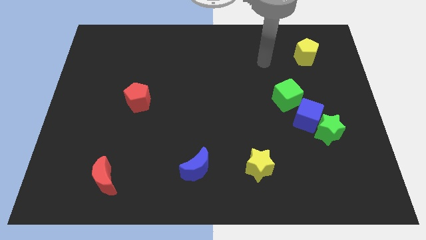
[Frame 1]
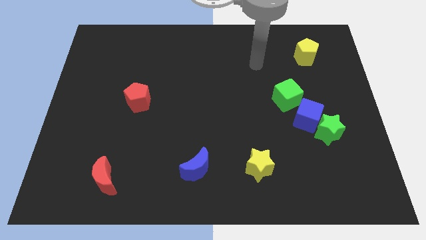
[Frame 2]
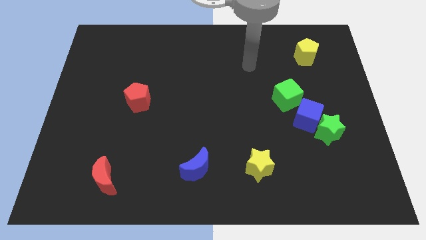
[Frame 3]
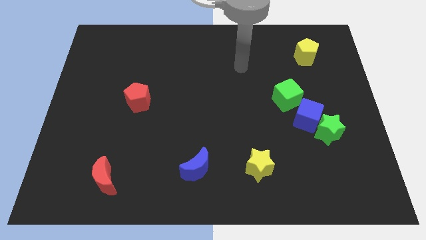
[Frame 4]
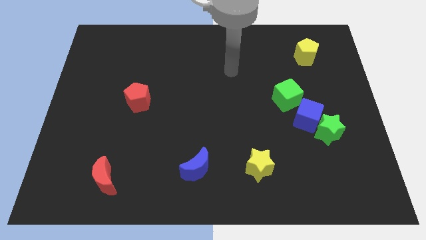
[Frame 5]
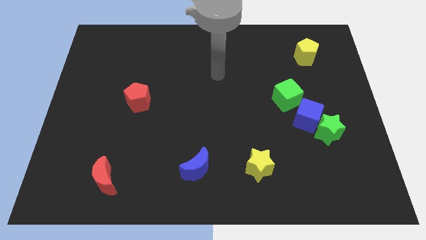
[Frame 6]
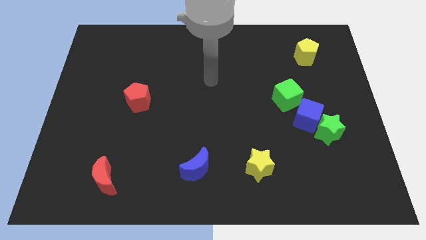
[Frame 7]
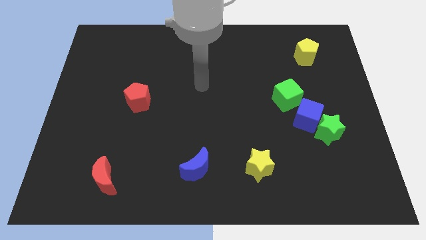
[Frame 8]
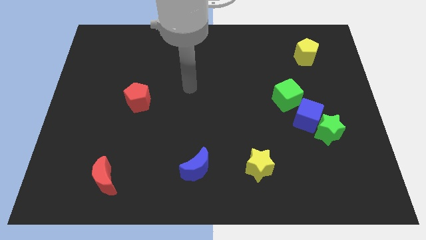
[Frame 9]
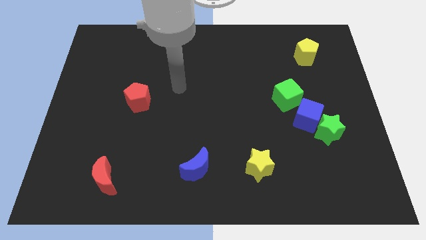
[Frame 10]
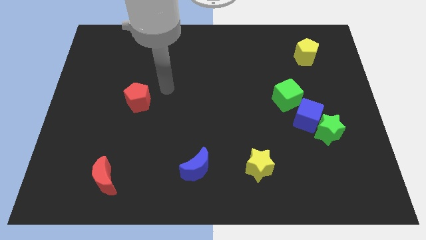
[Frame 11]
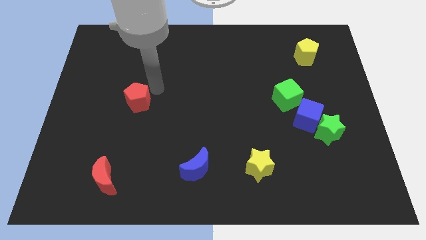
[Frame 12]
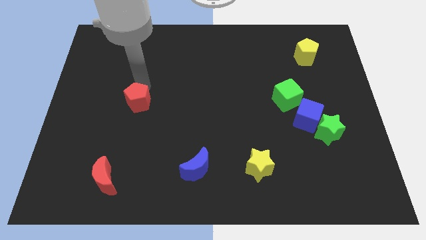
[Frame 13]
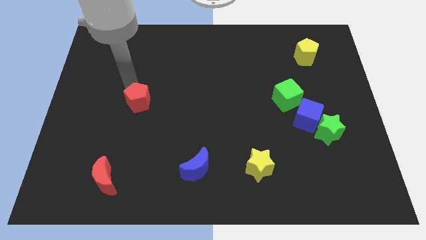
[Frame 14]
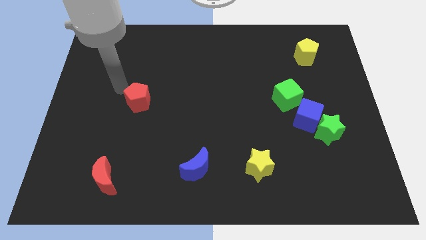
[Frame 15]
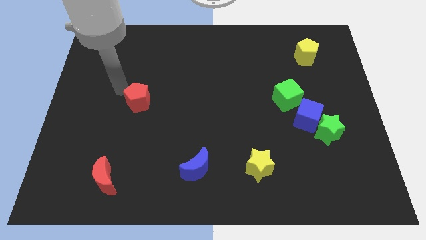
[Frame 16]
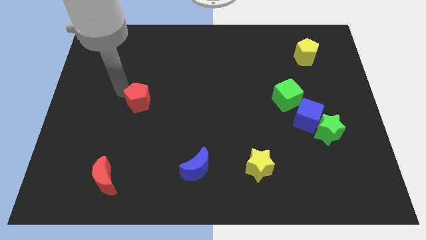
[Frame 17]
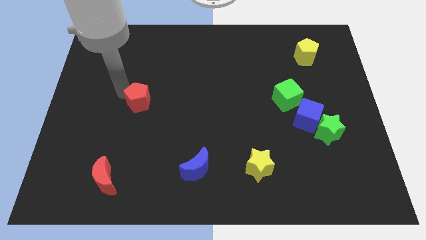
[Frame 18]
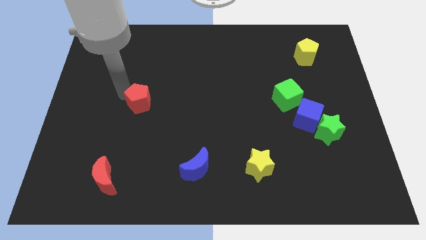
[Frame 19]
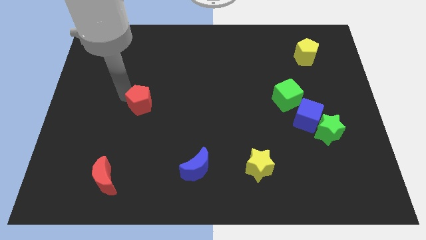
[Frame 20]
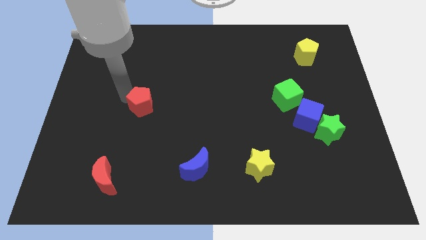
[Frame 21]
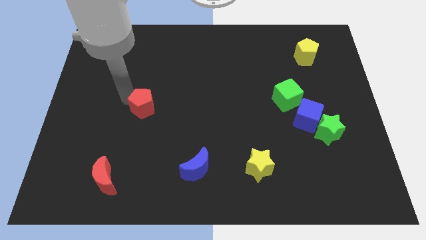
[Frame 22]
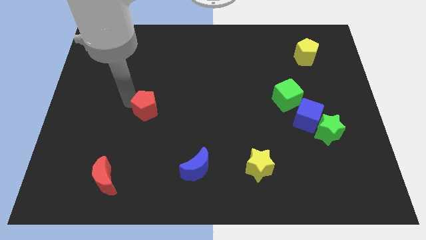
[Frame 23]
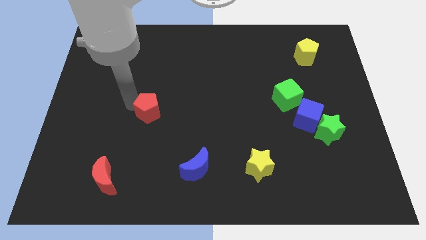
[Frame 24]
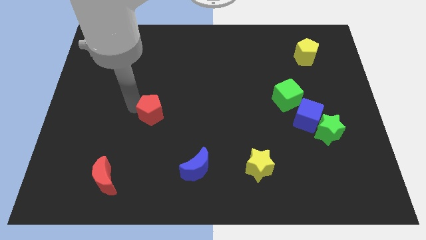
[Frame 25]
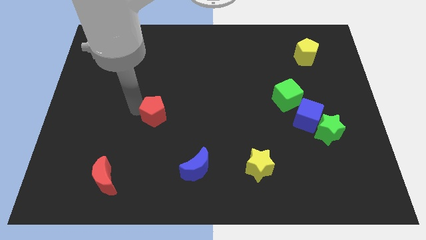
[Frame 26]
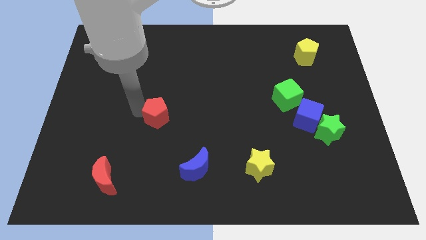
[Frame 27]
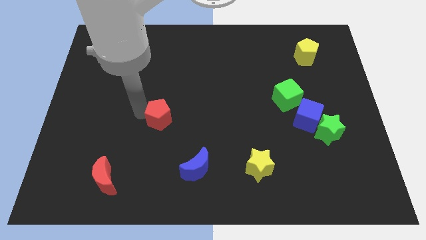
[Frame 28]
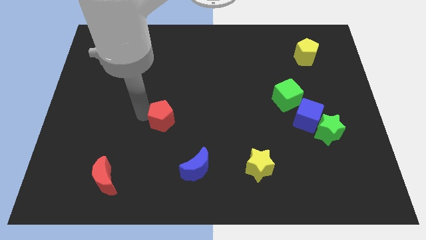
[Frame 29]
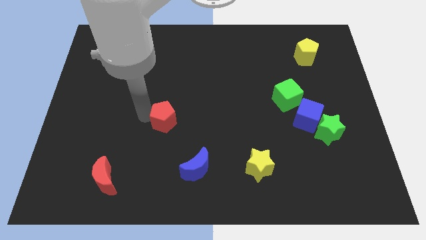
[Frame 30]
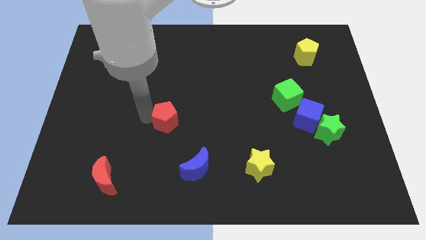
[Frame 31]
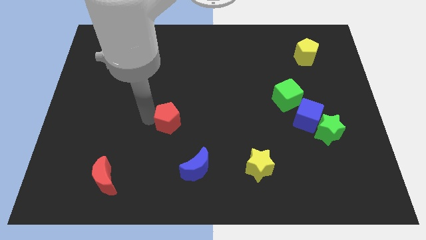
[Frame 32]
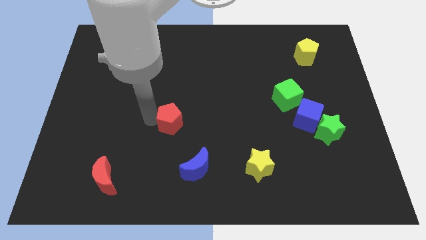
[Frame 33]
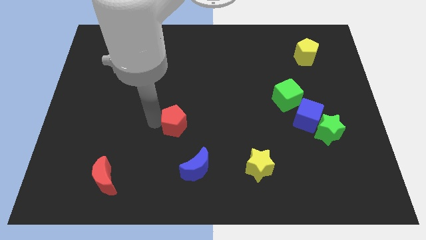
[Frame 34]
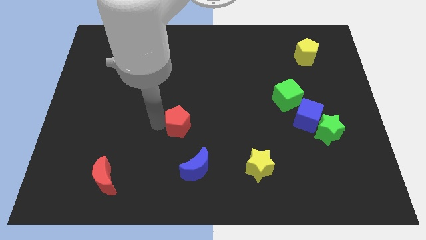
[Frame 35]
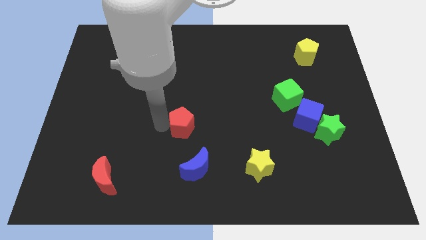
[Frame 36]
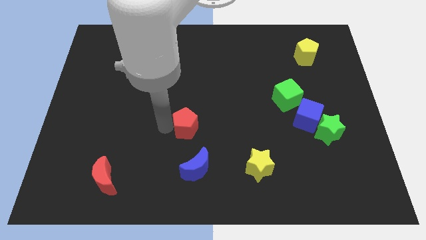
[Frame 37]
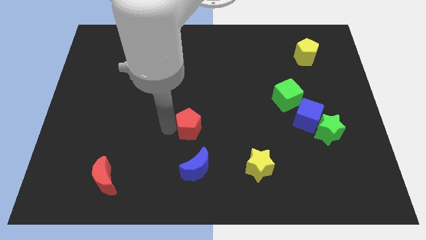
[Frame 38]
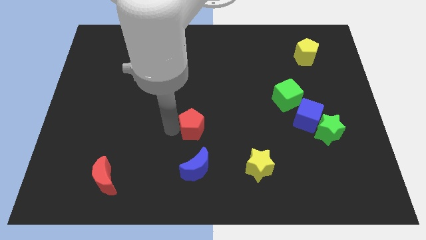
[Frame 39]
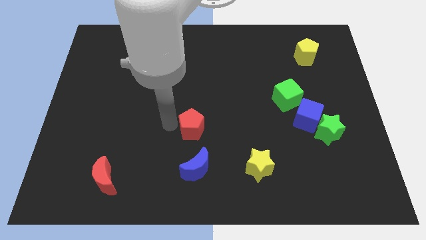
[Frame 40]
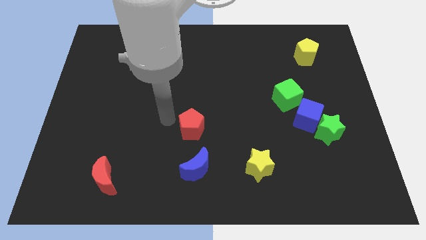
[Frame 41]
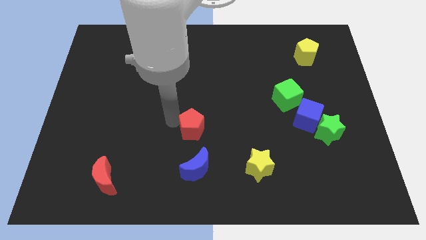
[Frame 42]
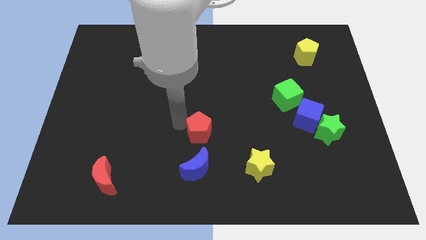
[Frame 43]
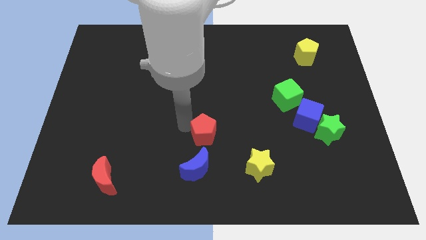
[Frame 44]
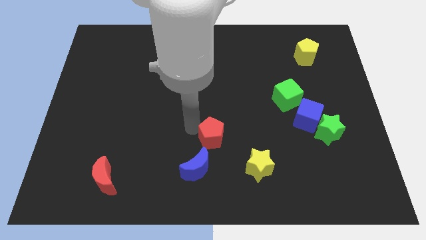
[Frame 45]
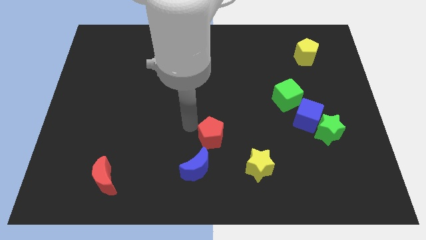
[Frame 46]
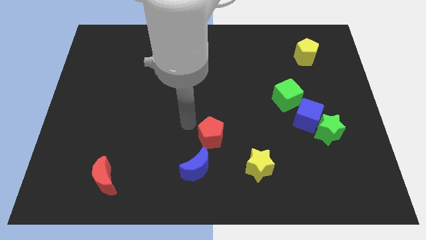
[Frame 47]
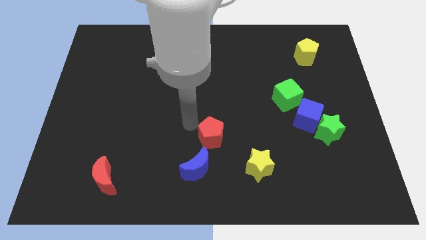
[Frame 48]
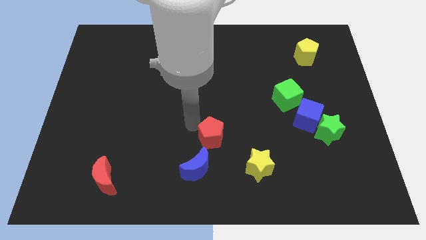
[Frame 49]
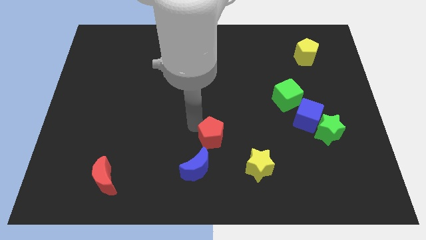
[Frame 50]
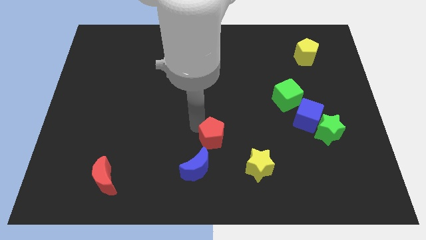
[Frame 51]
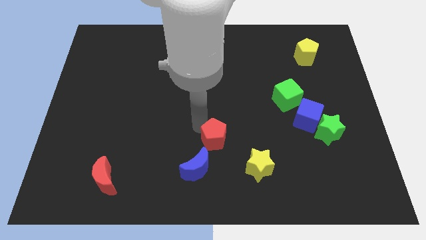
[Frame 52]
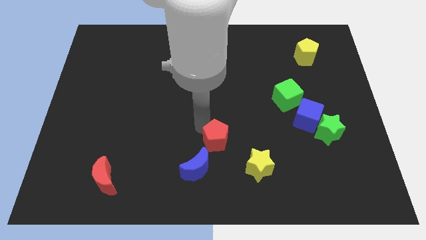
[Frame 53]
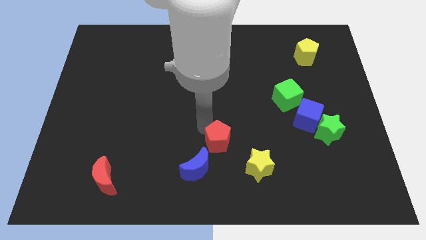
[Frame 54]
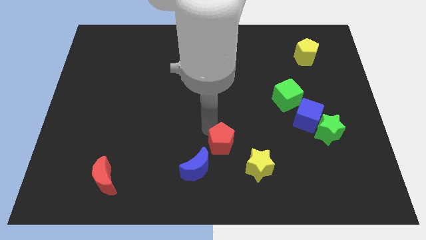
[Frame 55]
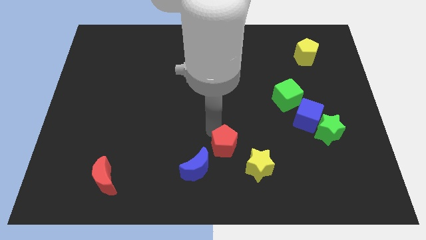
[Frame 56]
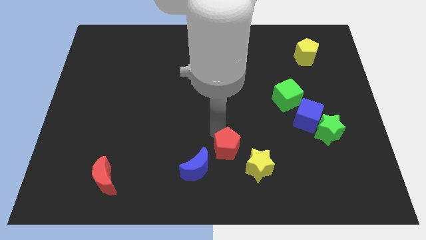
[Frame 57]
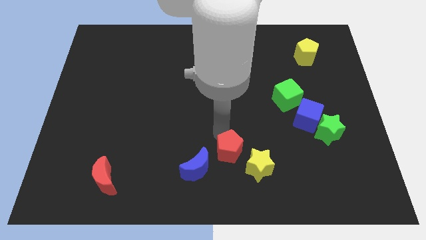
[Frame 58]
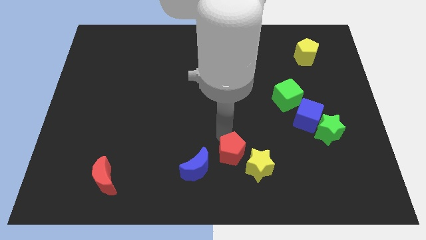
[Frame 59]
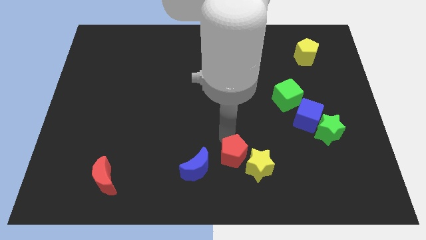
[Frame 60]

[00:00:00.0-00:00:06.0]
move the red pentagon to the yellow star

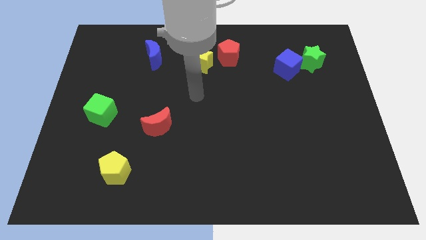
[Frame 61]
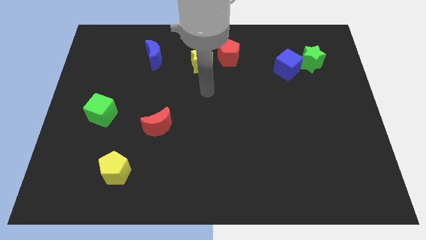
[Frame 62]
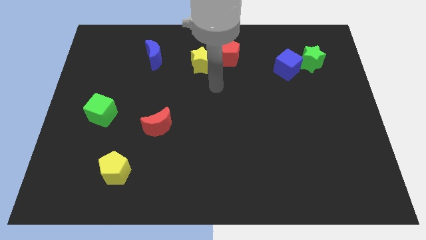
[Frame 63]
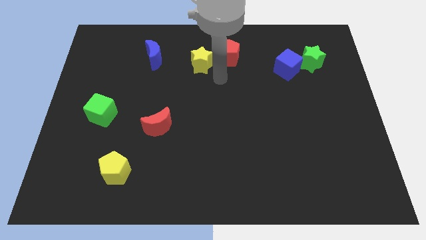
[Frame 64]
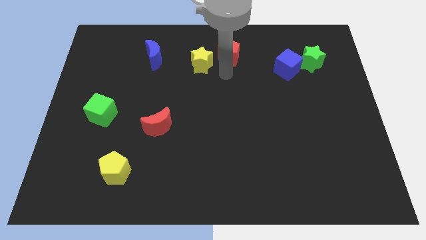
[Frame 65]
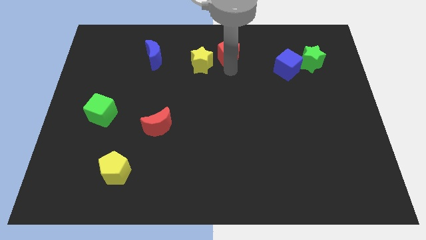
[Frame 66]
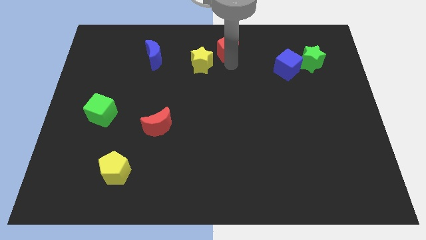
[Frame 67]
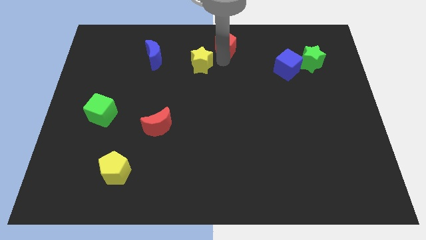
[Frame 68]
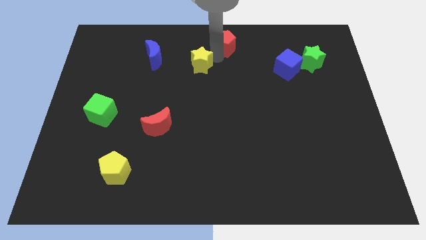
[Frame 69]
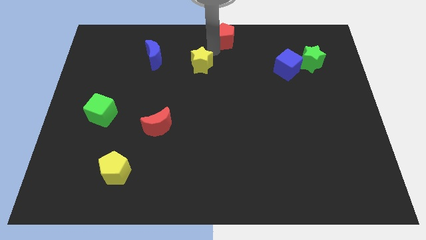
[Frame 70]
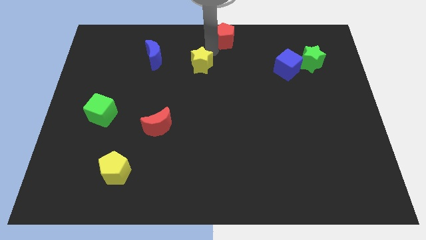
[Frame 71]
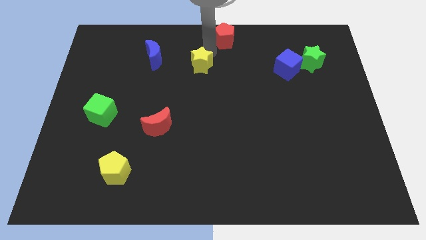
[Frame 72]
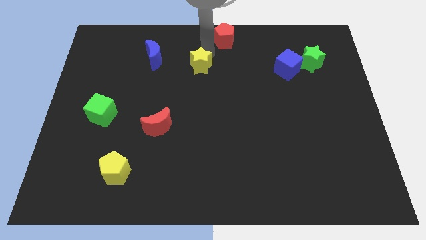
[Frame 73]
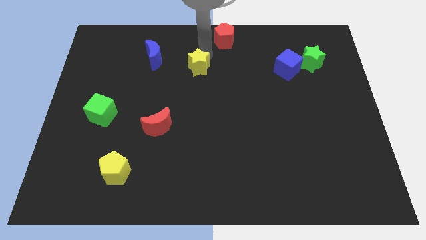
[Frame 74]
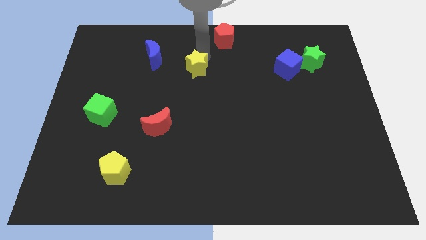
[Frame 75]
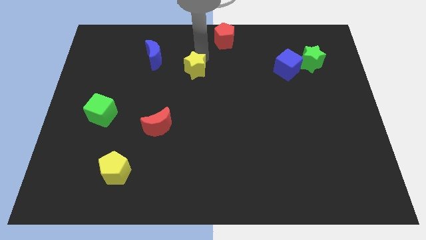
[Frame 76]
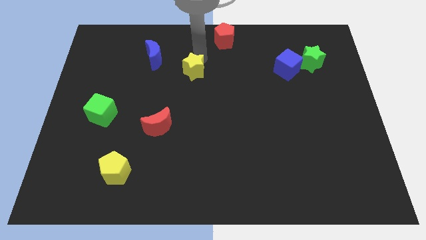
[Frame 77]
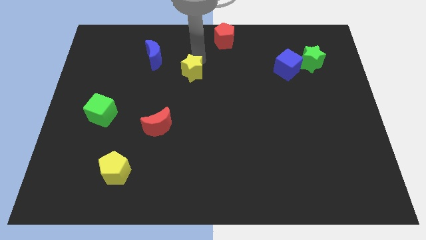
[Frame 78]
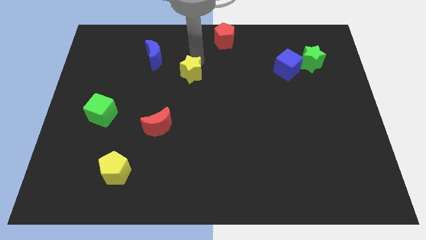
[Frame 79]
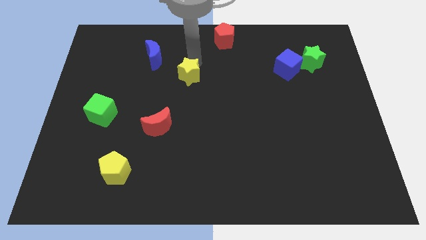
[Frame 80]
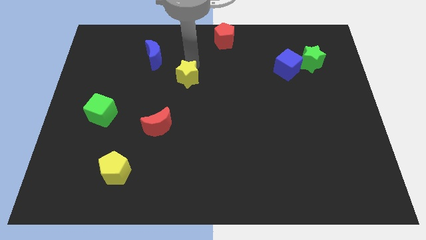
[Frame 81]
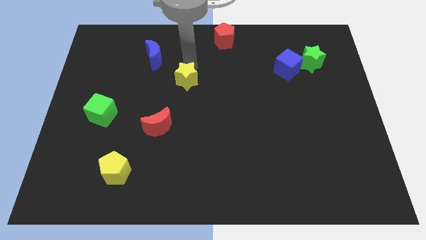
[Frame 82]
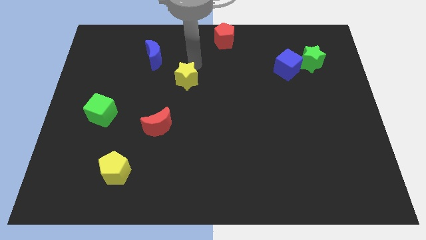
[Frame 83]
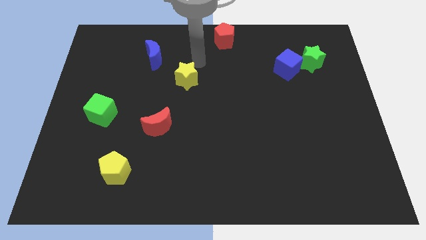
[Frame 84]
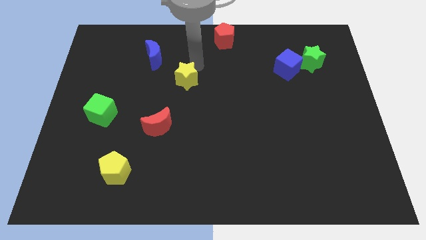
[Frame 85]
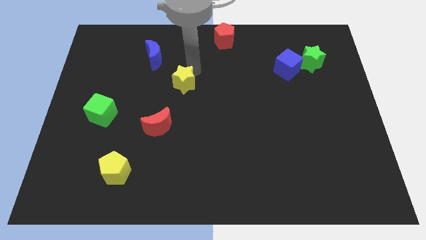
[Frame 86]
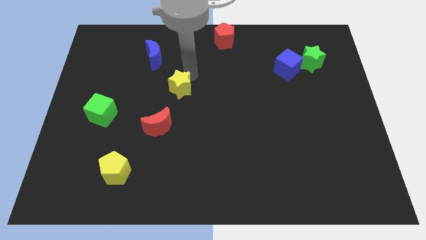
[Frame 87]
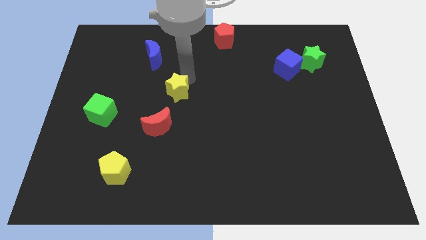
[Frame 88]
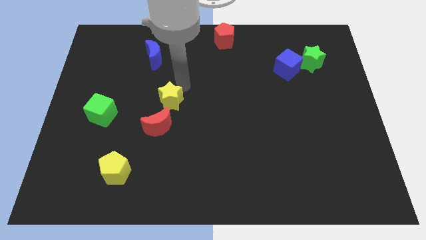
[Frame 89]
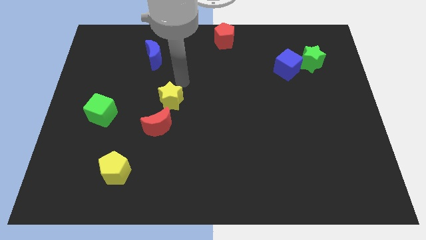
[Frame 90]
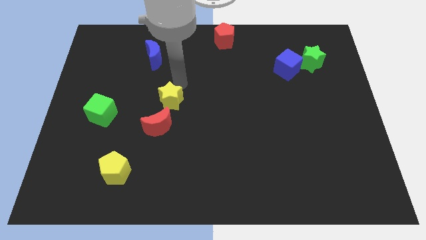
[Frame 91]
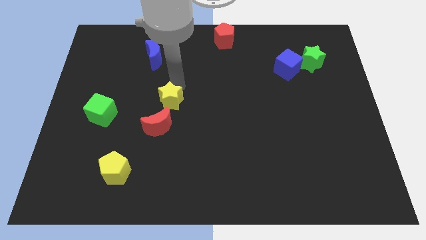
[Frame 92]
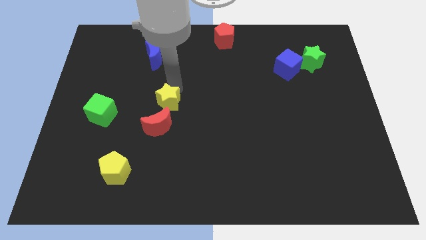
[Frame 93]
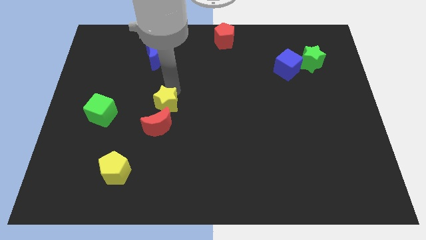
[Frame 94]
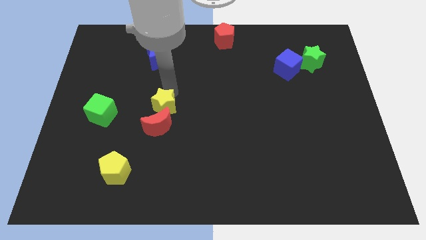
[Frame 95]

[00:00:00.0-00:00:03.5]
slide the yellow star to the red moon
